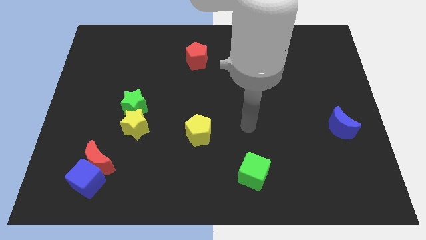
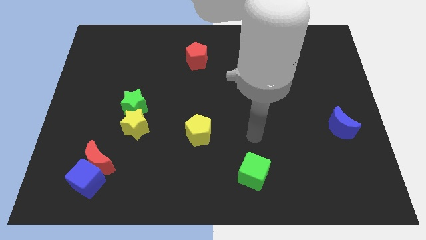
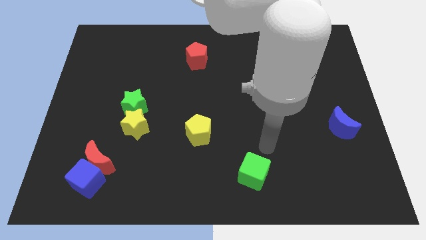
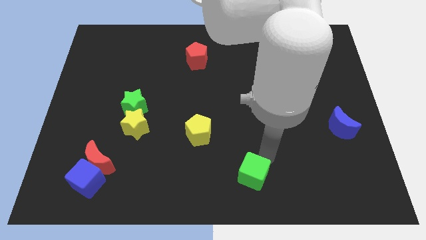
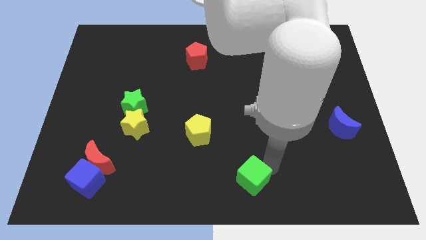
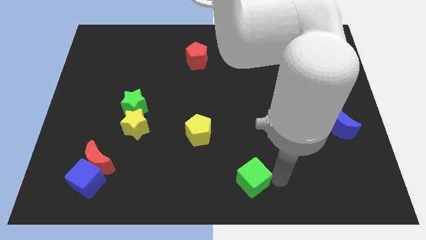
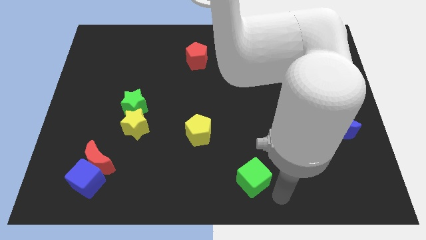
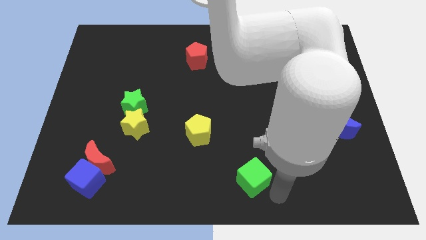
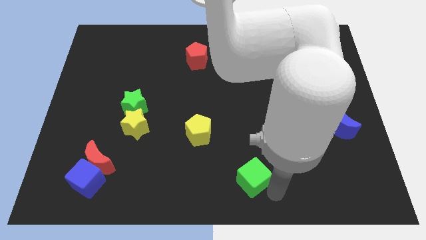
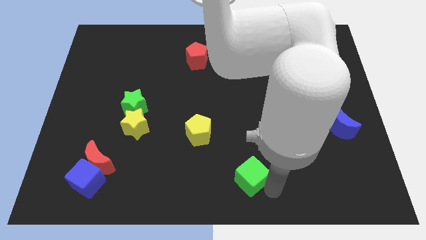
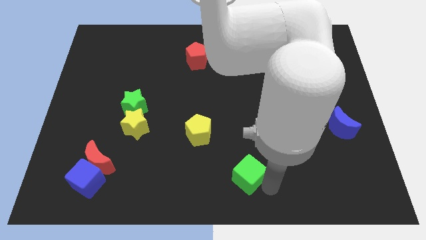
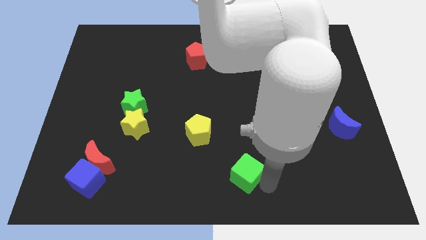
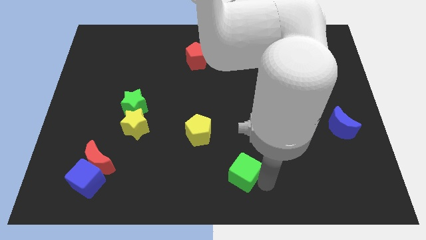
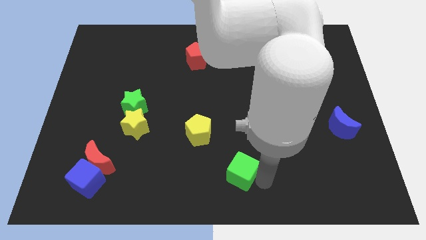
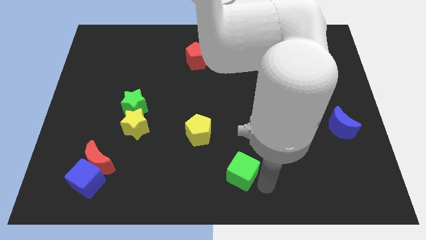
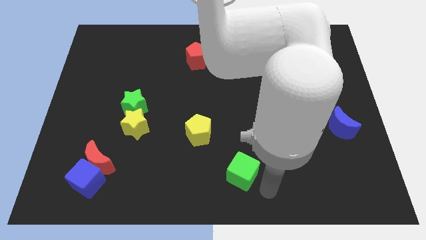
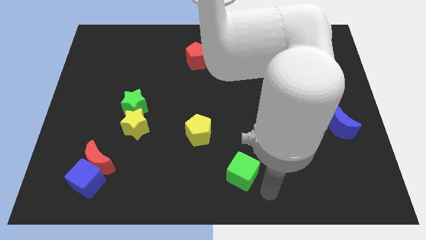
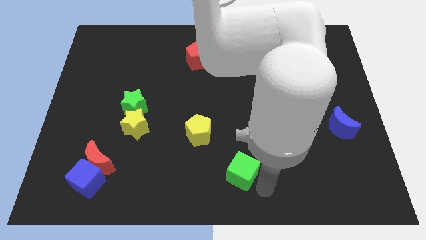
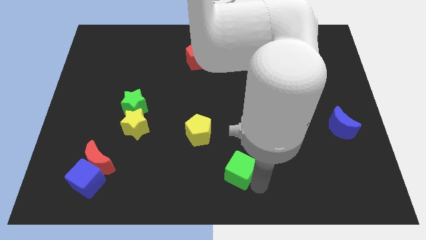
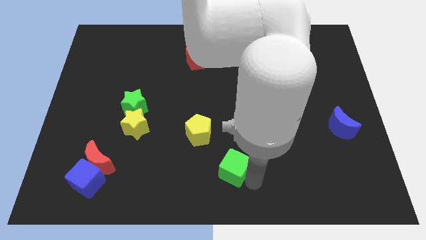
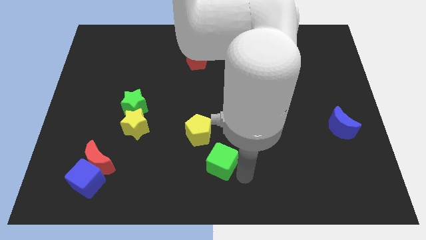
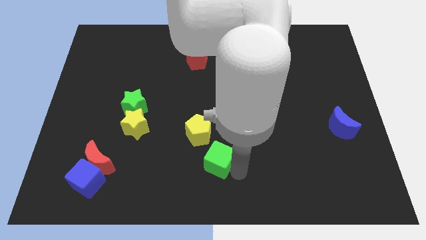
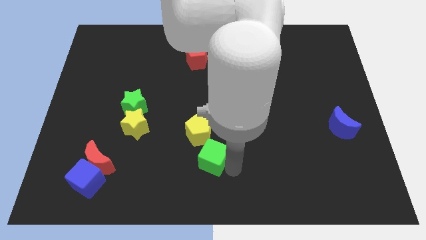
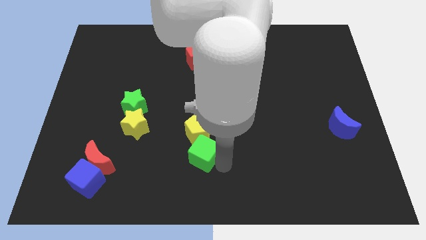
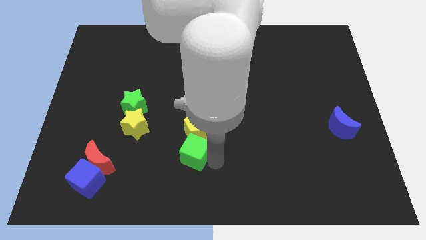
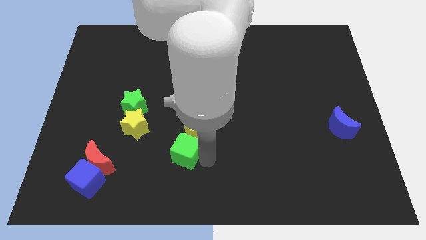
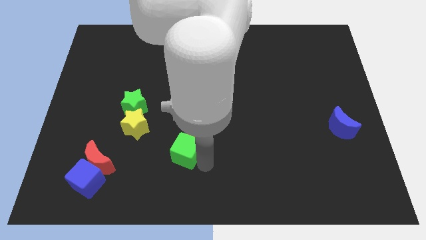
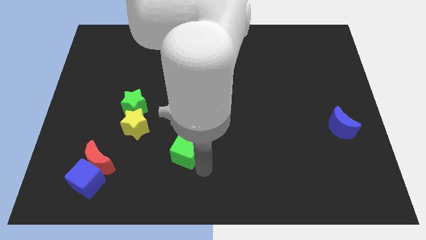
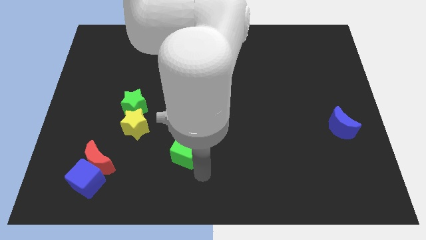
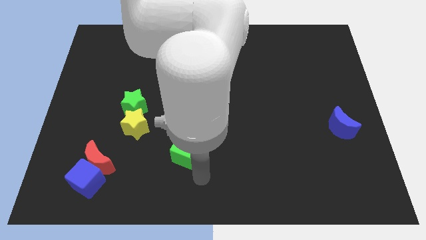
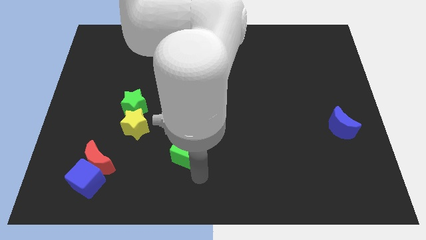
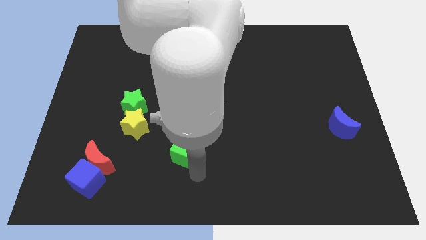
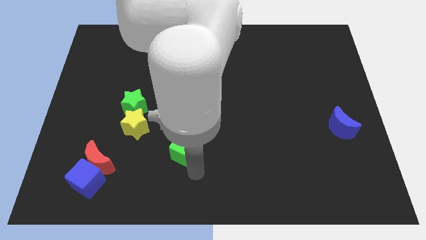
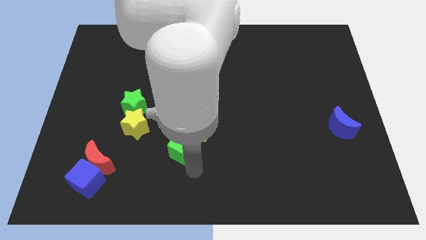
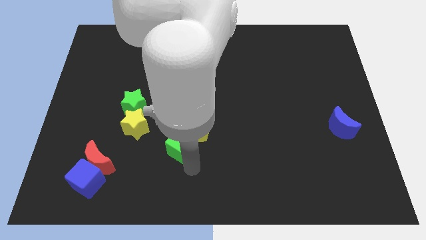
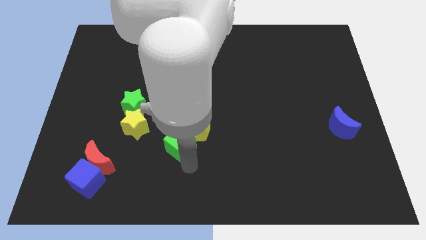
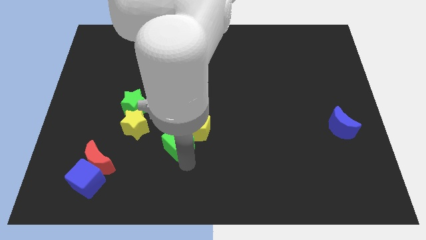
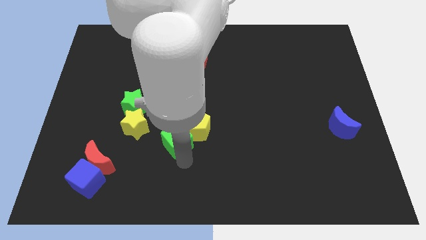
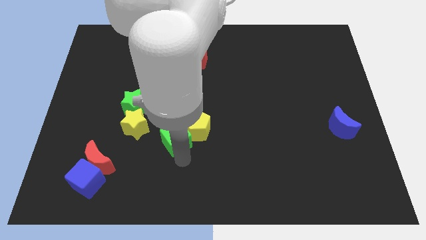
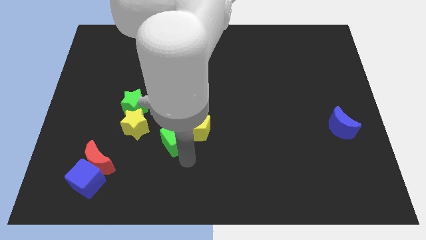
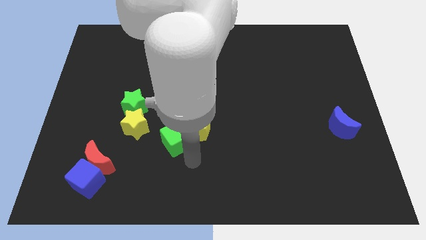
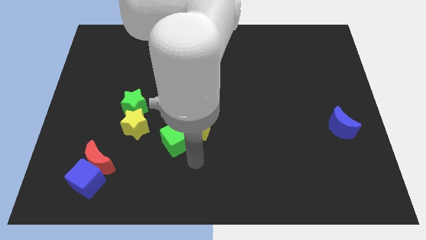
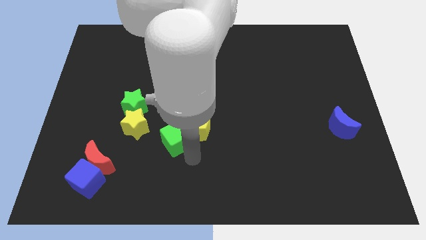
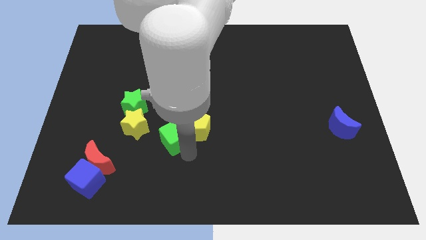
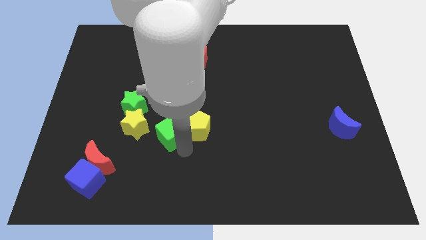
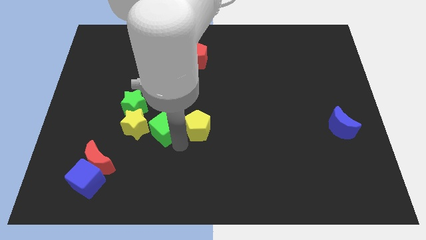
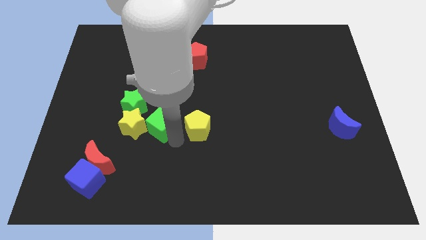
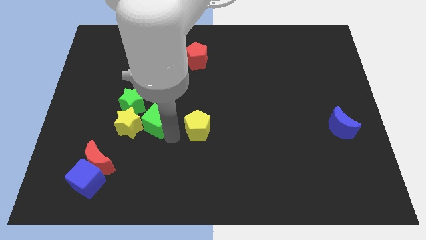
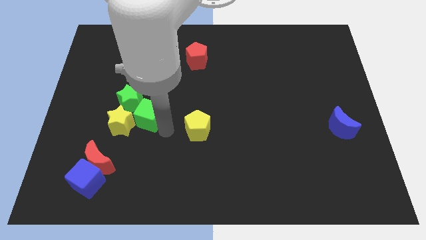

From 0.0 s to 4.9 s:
move the green cube close to the green star

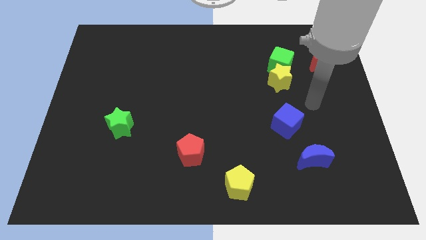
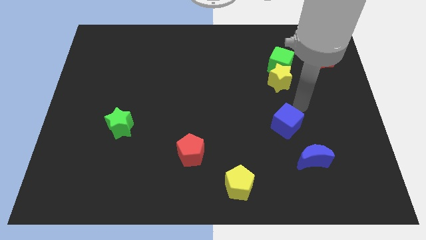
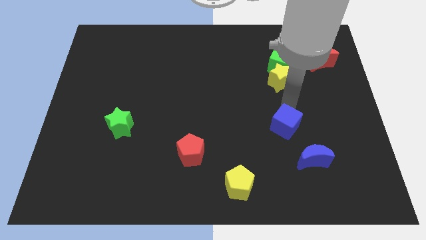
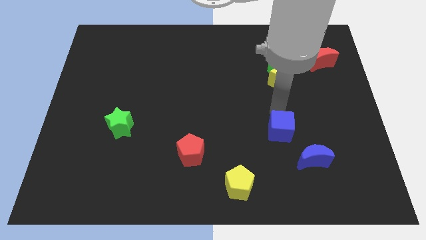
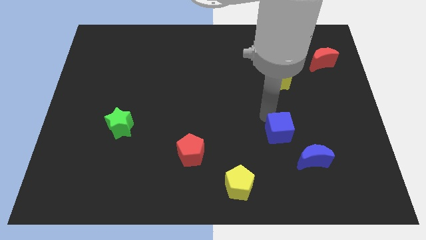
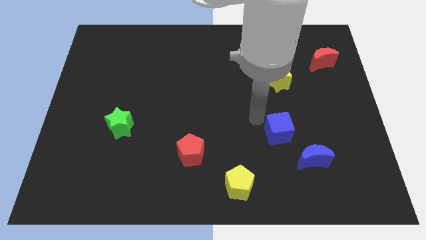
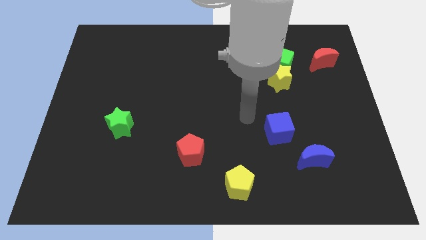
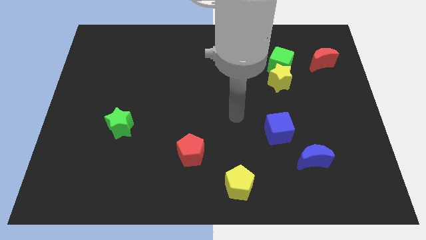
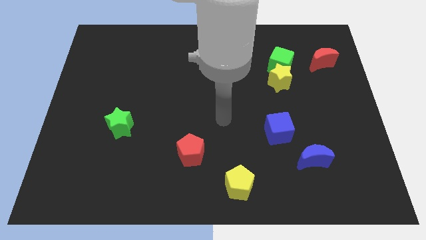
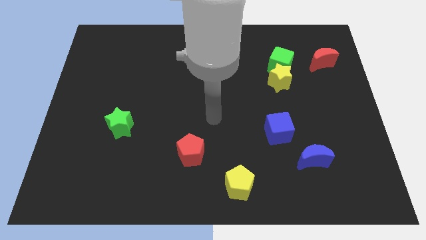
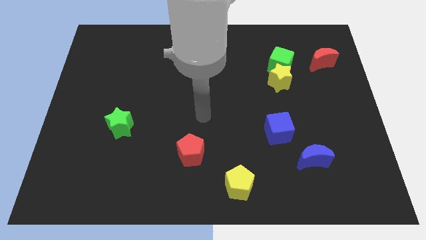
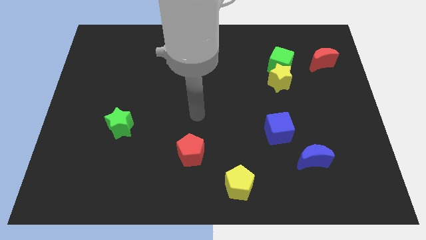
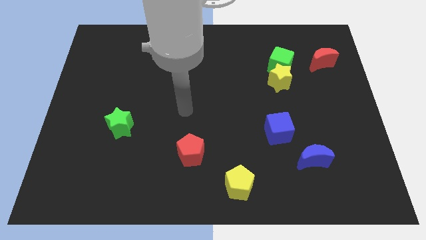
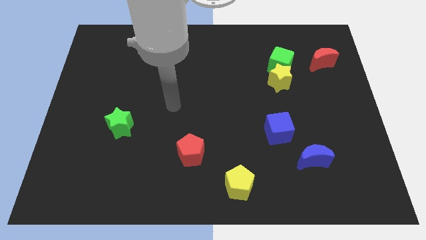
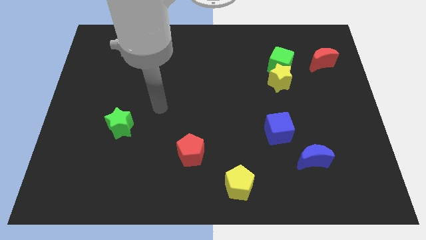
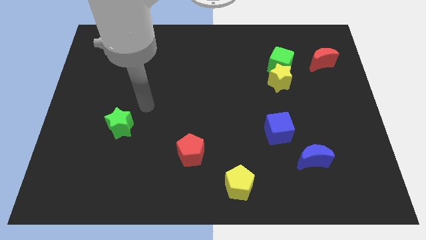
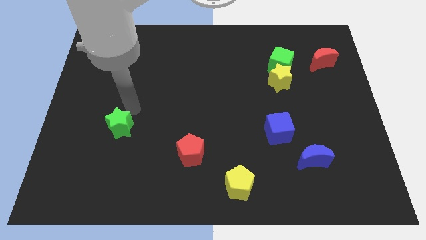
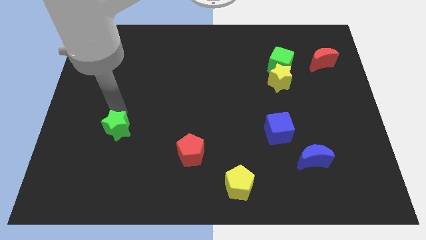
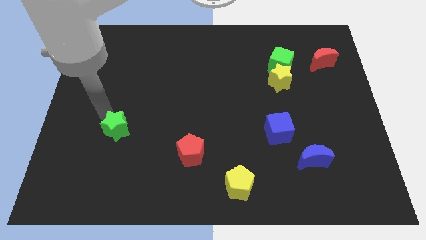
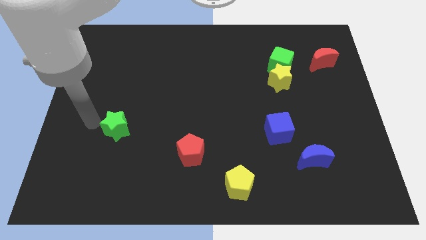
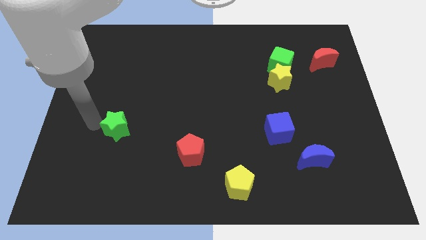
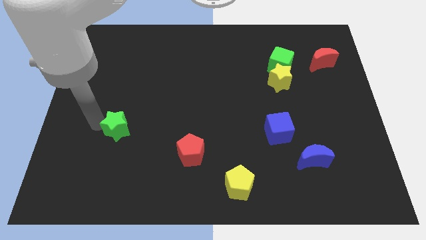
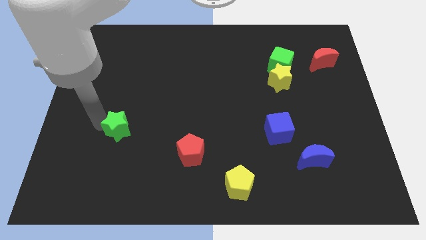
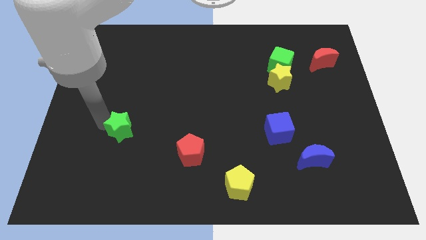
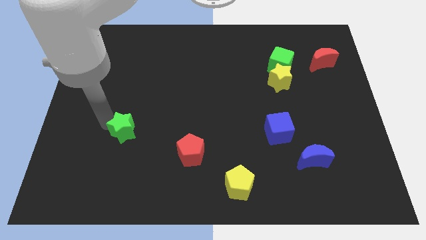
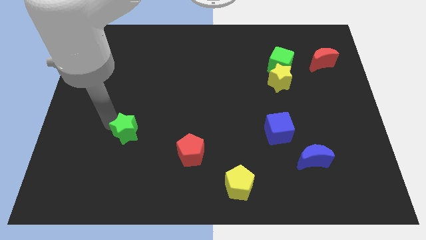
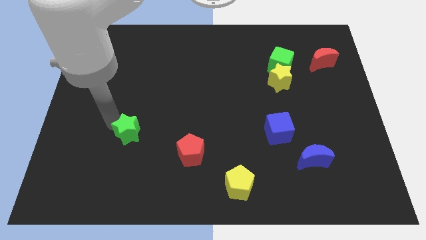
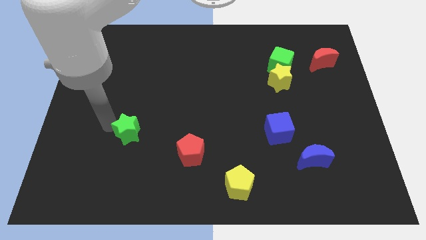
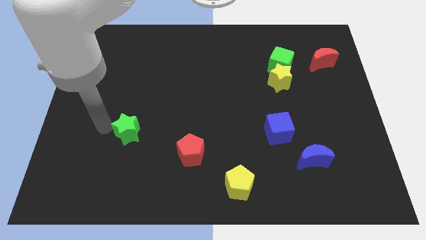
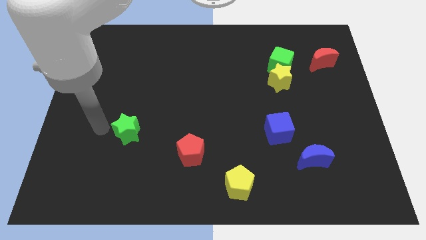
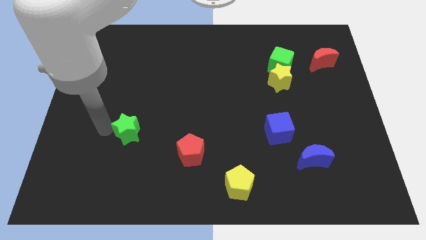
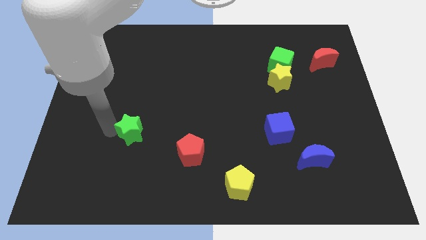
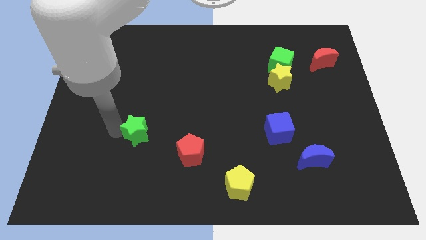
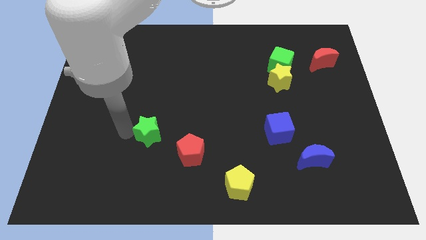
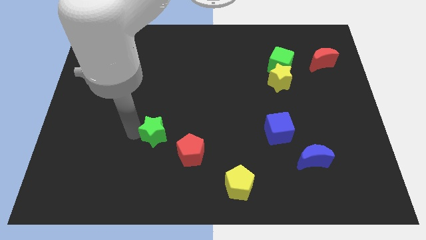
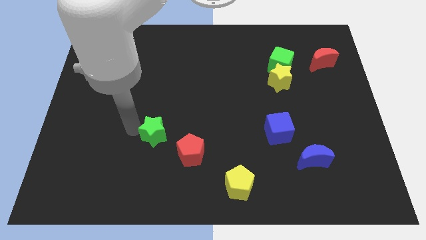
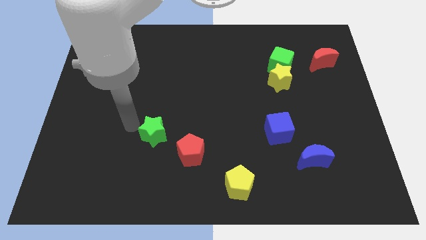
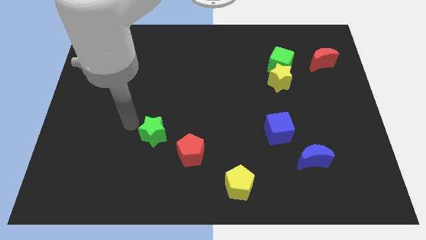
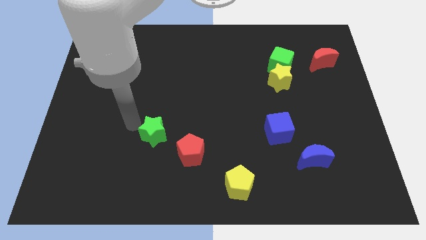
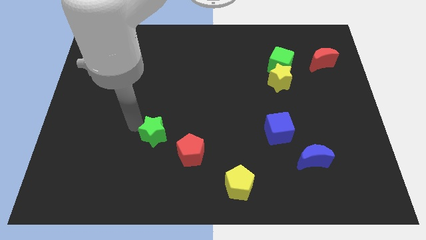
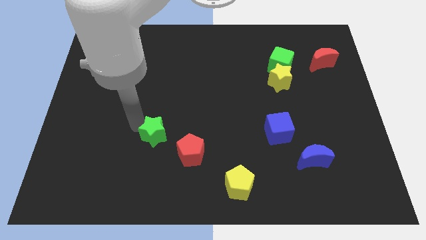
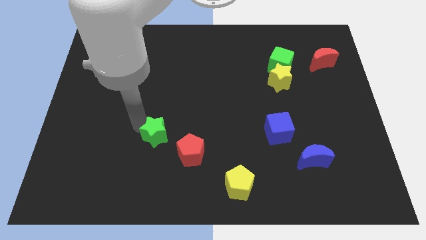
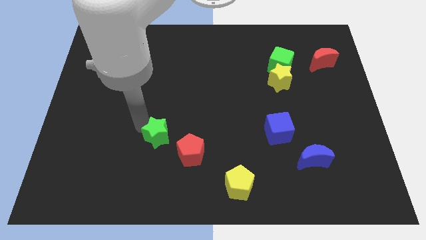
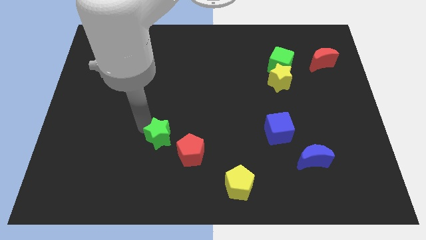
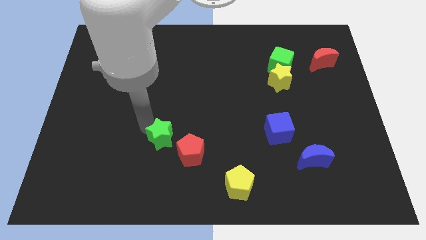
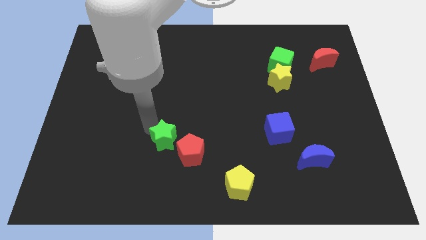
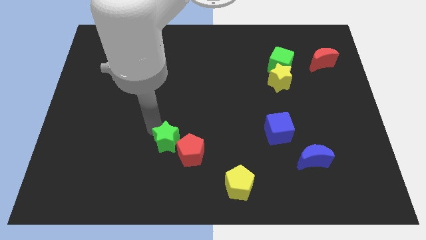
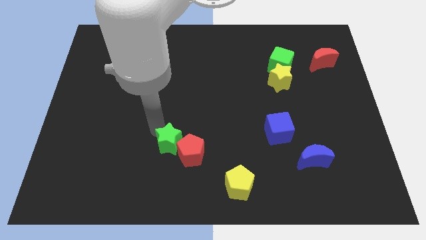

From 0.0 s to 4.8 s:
slide the green star next to the red pentagon
